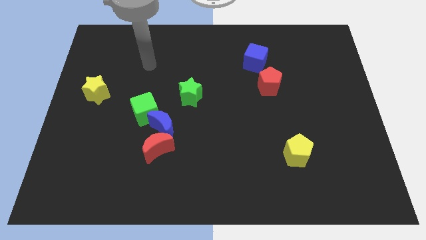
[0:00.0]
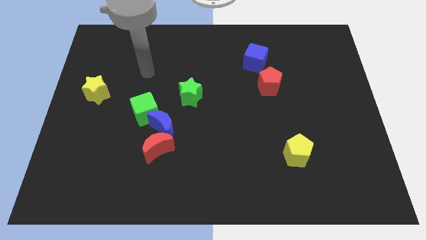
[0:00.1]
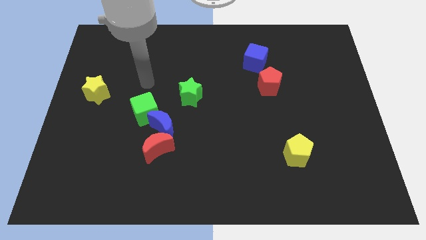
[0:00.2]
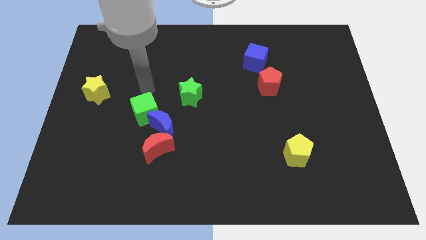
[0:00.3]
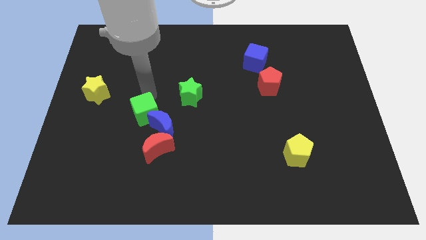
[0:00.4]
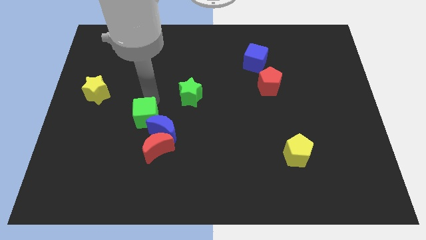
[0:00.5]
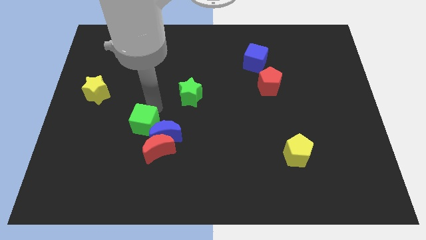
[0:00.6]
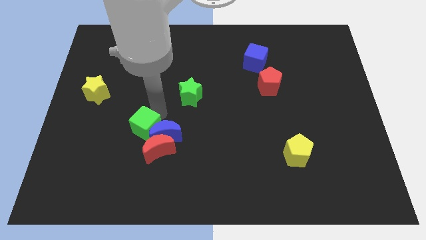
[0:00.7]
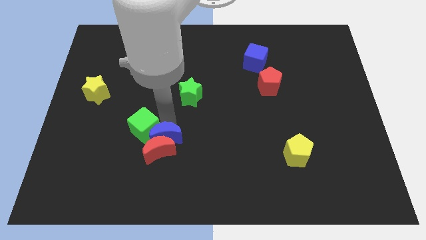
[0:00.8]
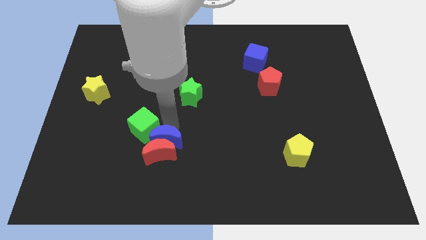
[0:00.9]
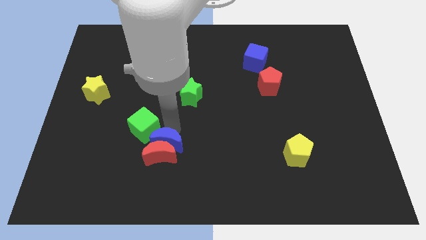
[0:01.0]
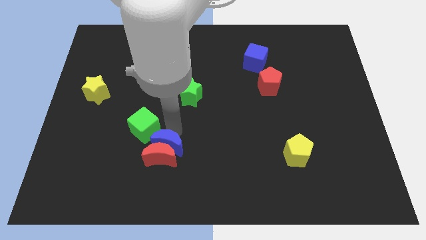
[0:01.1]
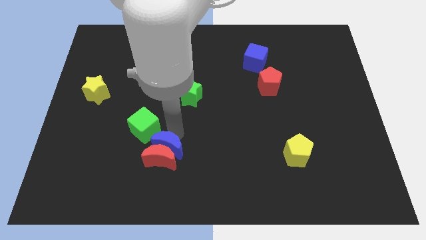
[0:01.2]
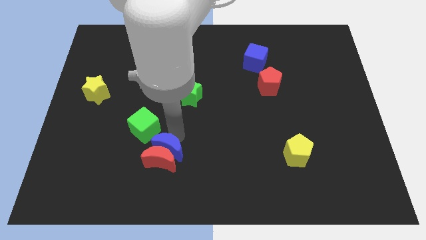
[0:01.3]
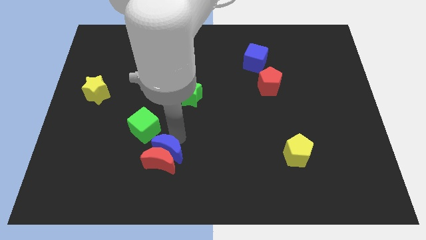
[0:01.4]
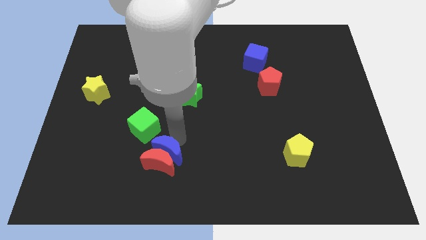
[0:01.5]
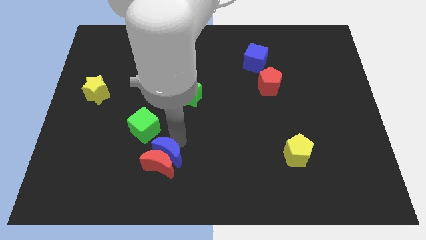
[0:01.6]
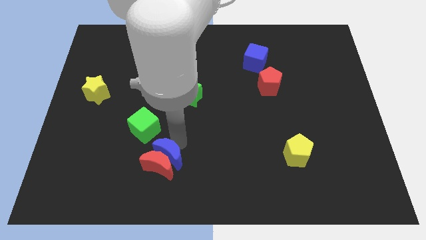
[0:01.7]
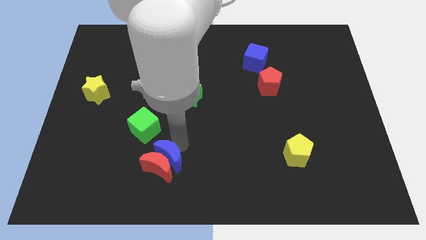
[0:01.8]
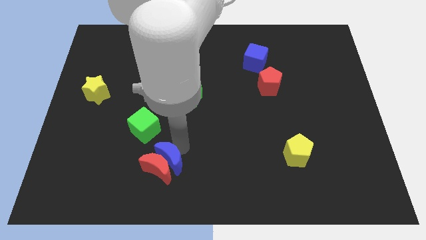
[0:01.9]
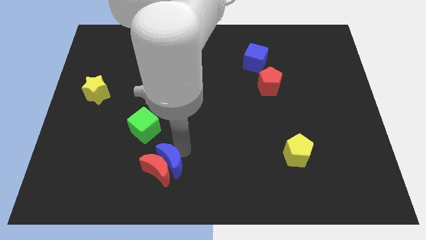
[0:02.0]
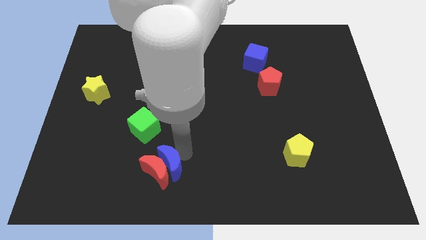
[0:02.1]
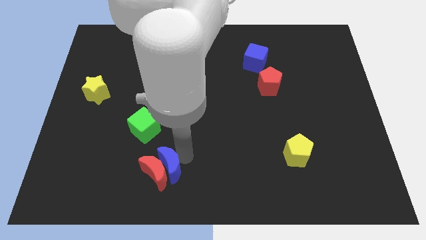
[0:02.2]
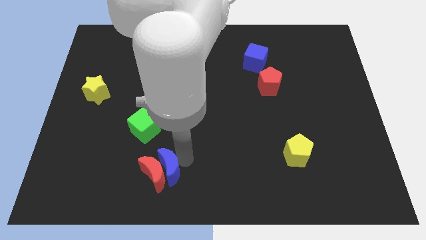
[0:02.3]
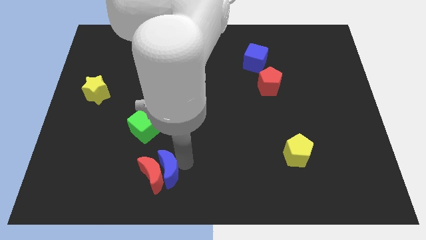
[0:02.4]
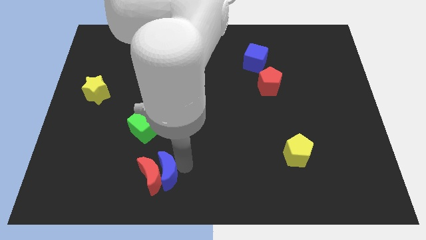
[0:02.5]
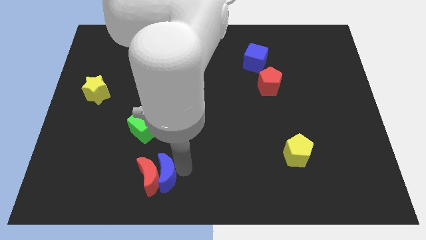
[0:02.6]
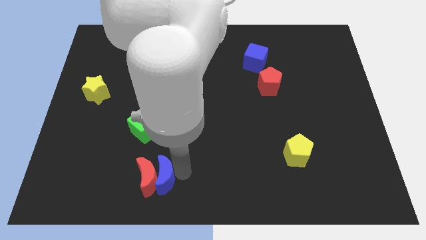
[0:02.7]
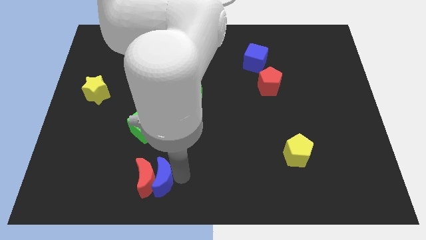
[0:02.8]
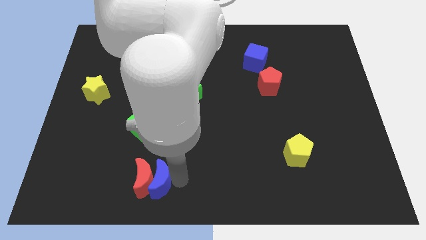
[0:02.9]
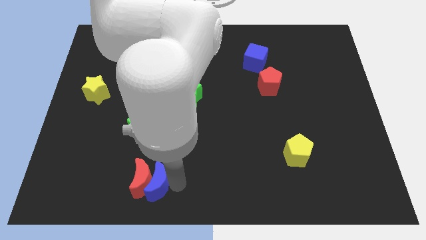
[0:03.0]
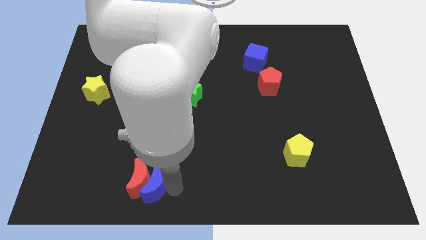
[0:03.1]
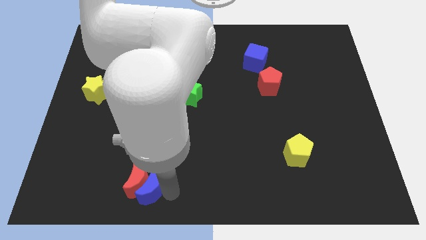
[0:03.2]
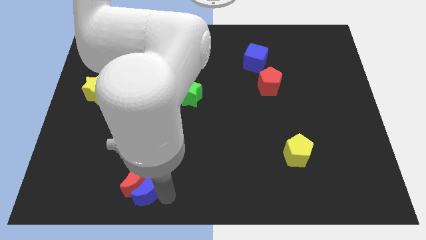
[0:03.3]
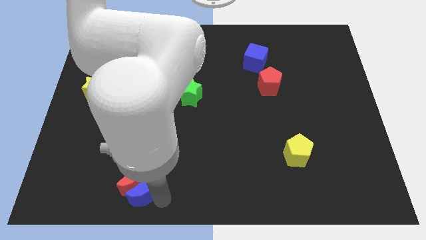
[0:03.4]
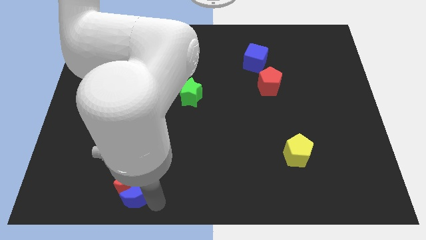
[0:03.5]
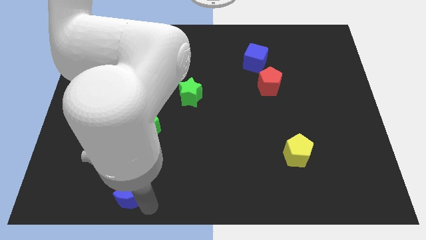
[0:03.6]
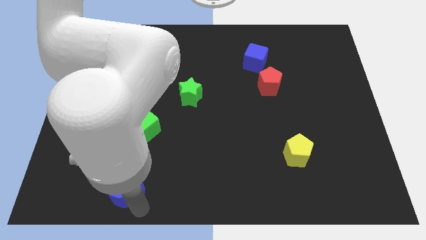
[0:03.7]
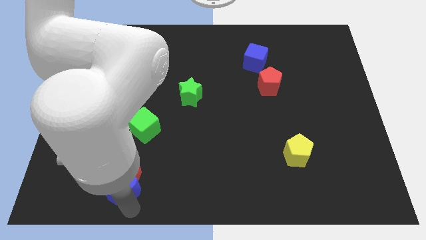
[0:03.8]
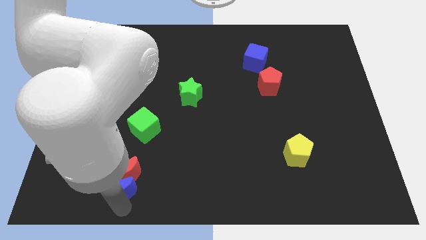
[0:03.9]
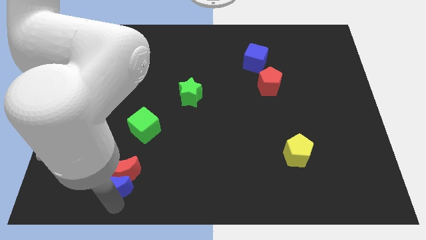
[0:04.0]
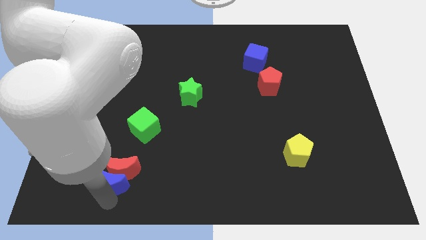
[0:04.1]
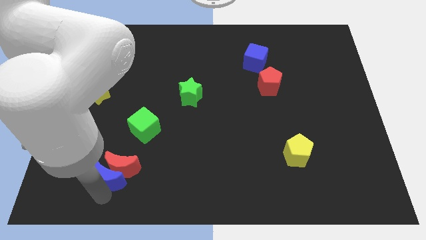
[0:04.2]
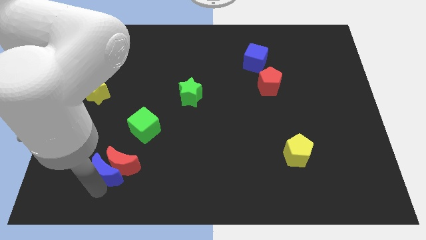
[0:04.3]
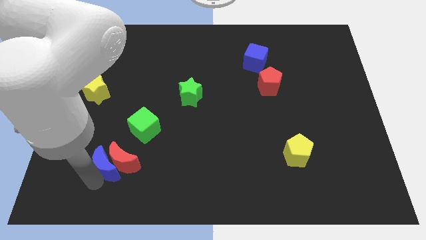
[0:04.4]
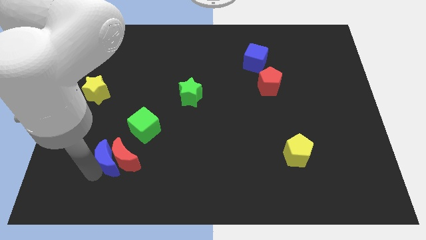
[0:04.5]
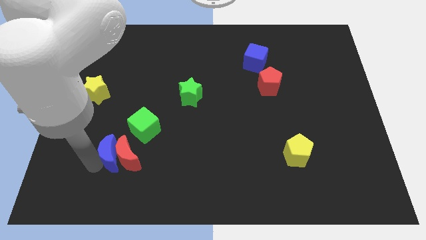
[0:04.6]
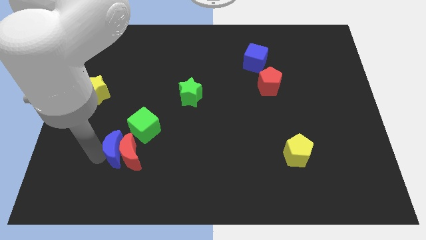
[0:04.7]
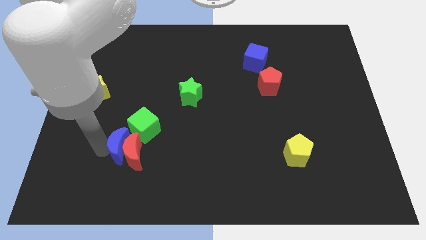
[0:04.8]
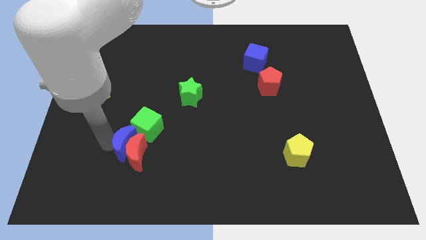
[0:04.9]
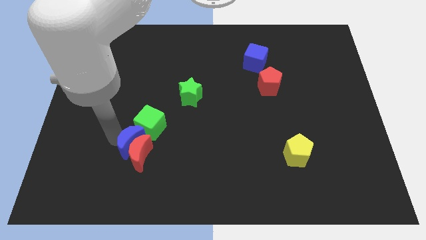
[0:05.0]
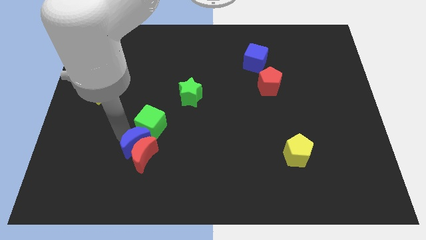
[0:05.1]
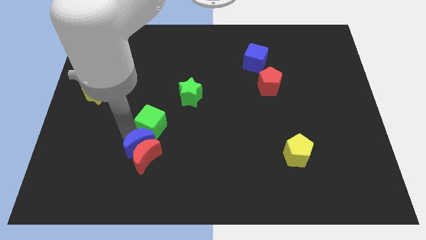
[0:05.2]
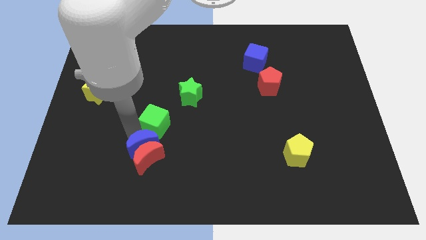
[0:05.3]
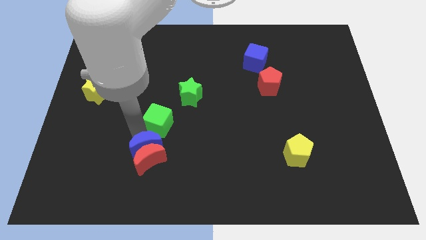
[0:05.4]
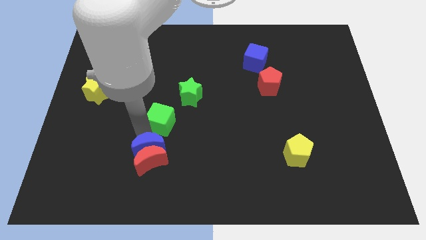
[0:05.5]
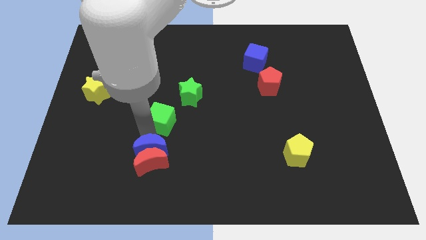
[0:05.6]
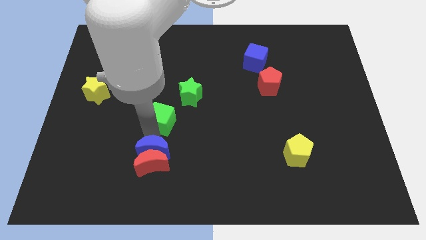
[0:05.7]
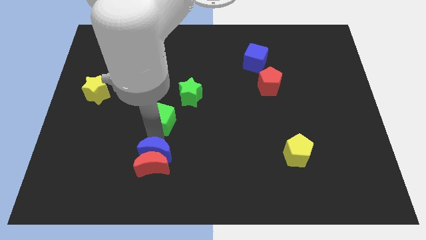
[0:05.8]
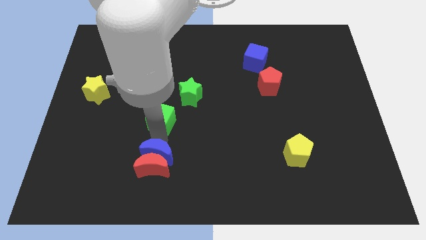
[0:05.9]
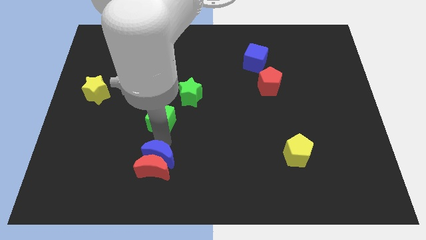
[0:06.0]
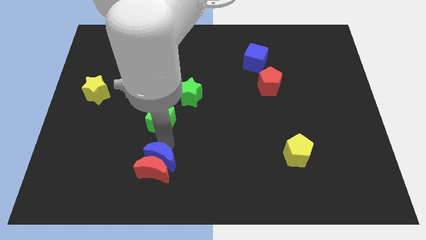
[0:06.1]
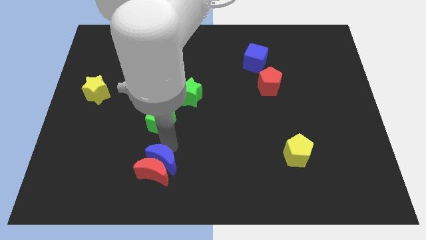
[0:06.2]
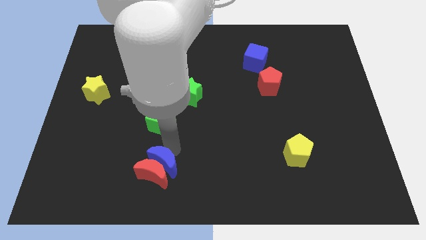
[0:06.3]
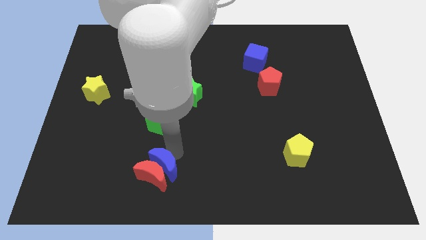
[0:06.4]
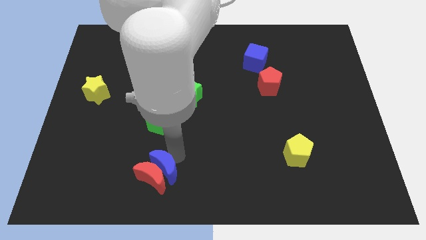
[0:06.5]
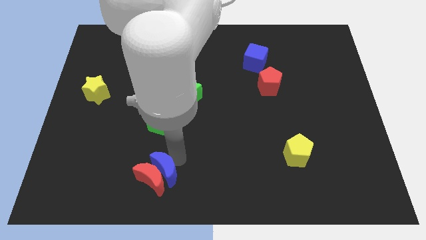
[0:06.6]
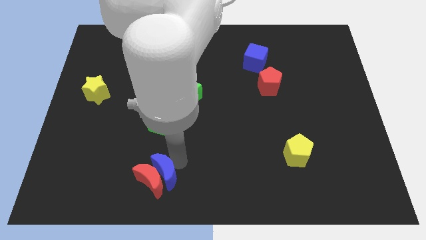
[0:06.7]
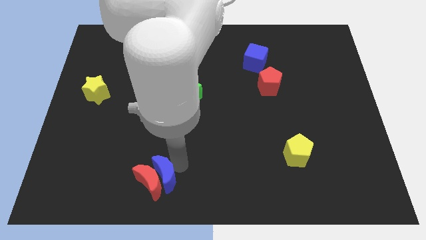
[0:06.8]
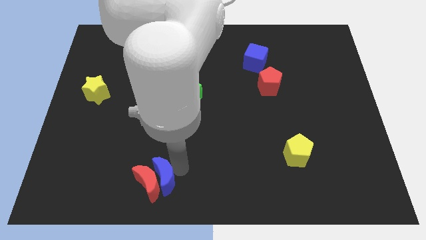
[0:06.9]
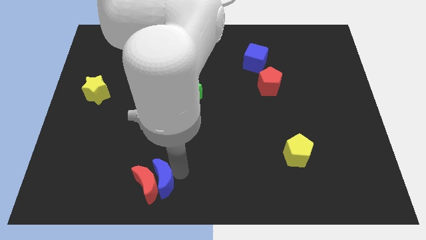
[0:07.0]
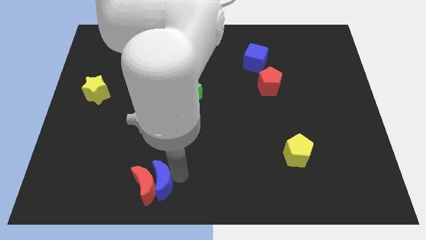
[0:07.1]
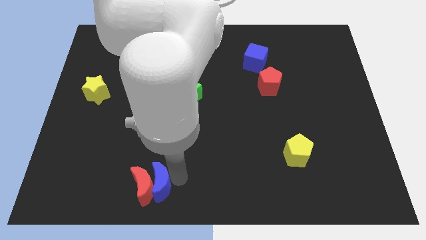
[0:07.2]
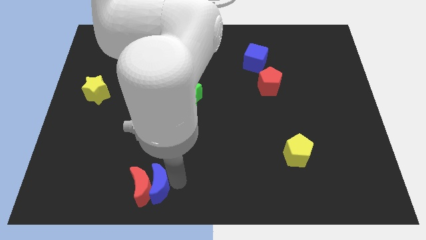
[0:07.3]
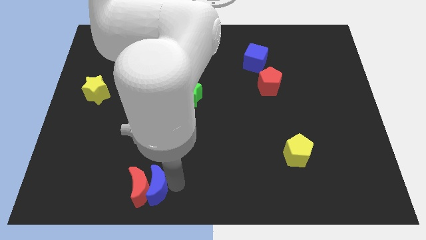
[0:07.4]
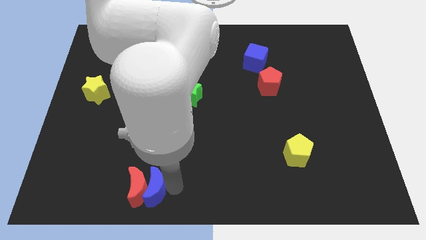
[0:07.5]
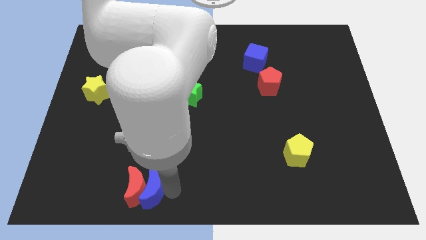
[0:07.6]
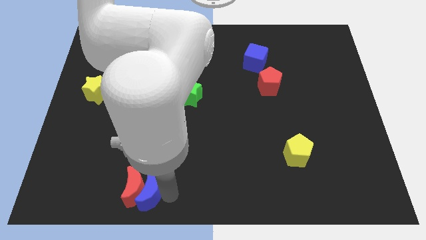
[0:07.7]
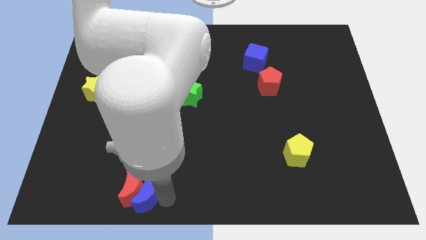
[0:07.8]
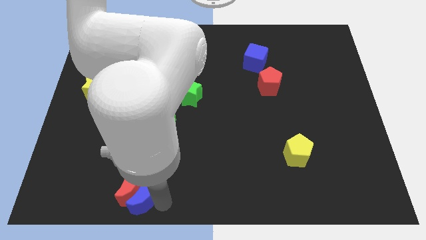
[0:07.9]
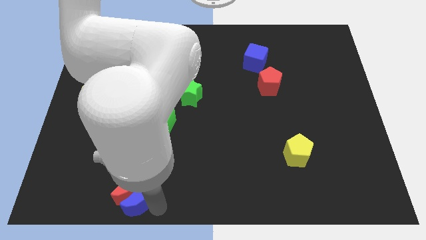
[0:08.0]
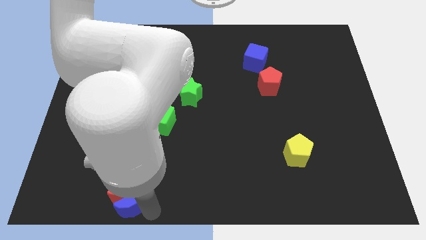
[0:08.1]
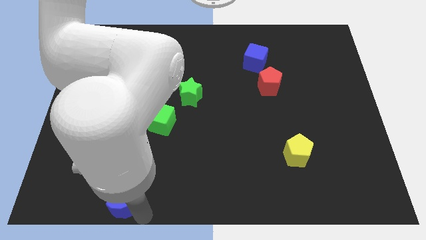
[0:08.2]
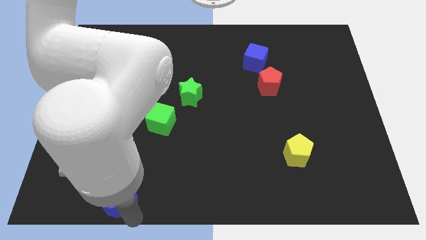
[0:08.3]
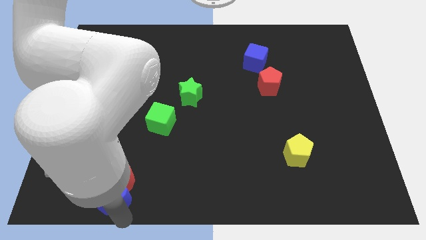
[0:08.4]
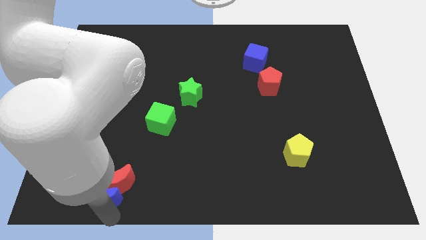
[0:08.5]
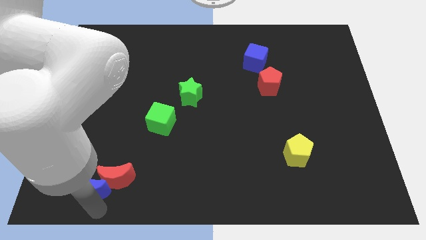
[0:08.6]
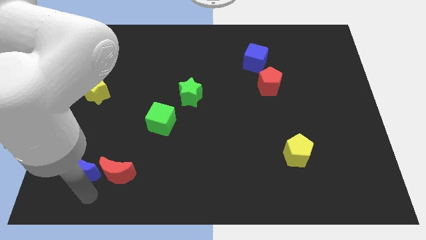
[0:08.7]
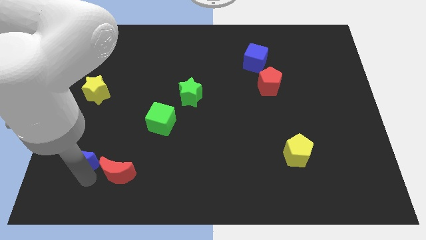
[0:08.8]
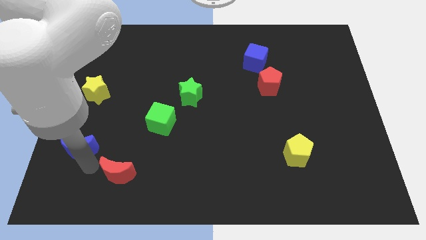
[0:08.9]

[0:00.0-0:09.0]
separate the red moon from the blue moon

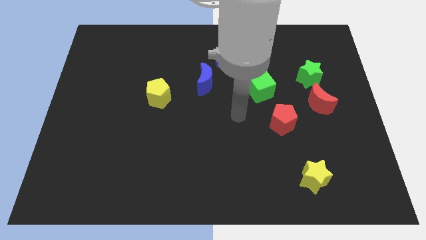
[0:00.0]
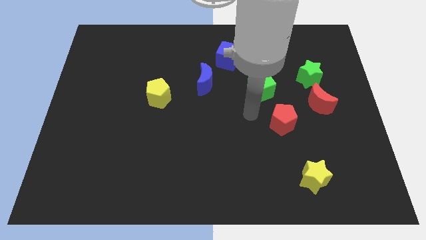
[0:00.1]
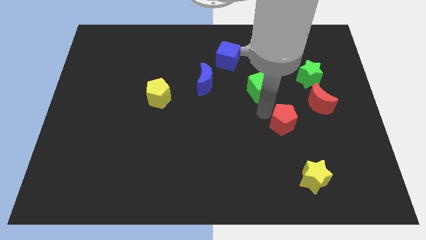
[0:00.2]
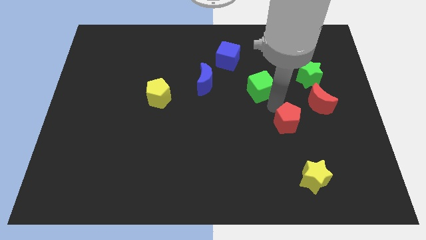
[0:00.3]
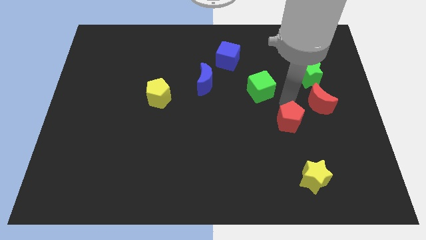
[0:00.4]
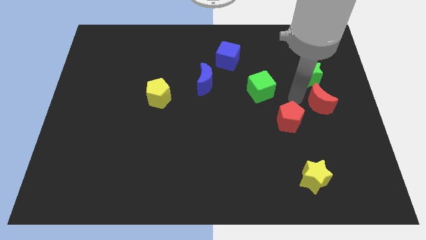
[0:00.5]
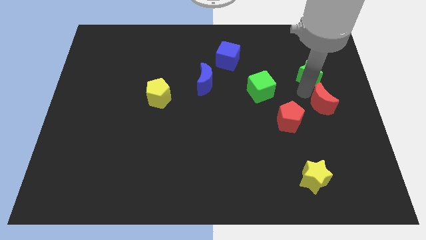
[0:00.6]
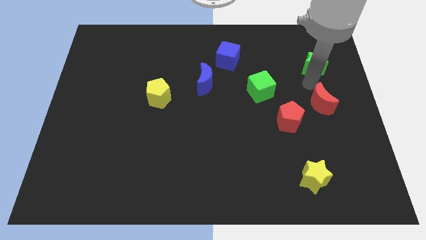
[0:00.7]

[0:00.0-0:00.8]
pull the red moon apart from the green star
